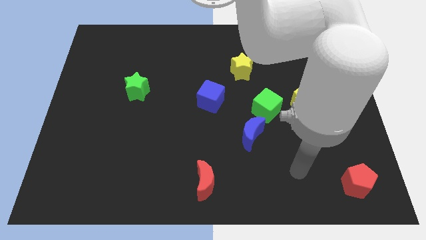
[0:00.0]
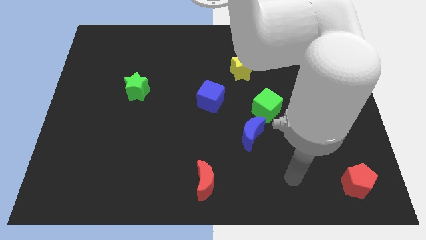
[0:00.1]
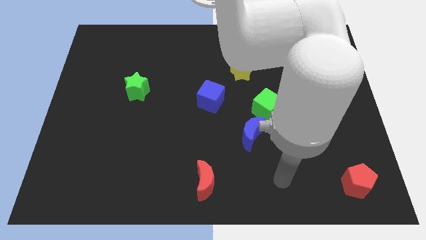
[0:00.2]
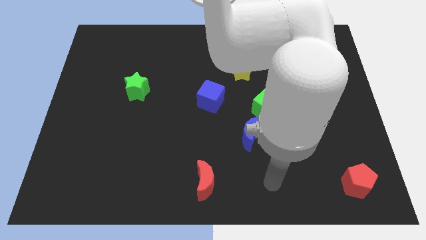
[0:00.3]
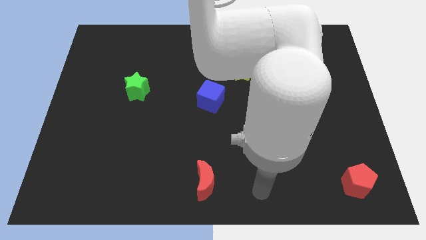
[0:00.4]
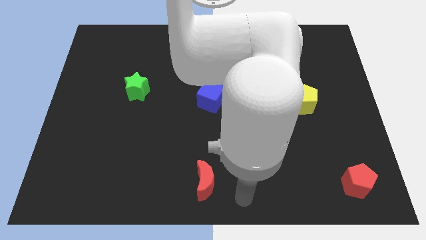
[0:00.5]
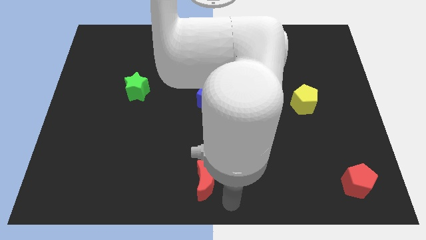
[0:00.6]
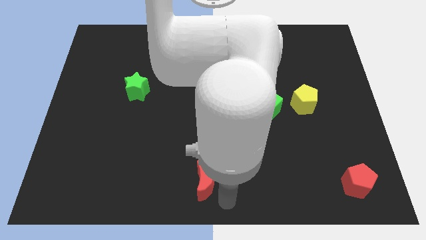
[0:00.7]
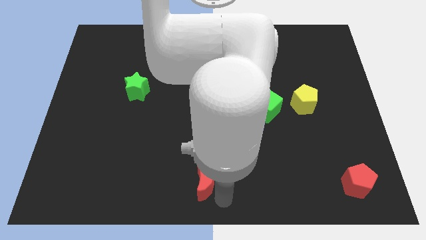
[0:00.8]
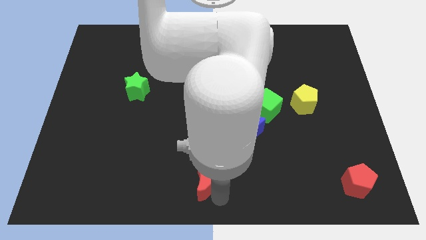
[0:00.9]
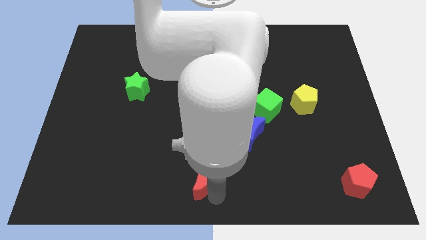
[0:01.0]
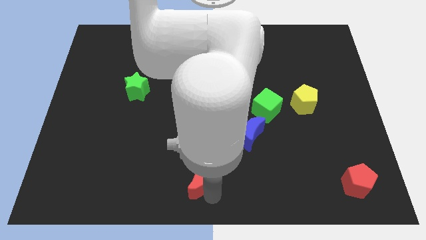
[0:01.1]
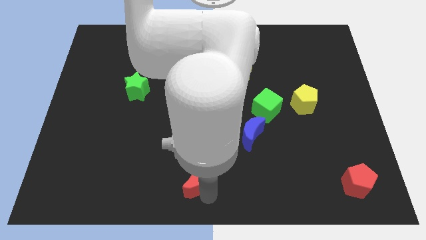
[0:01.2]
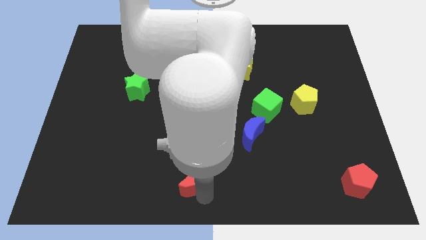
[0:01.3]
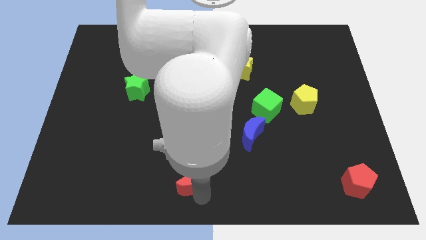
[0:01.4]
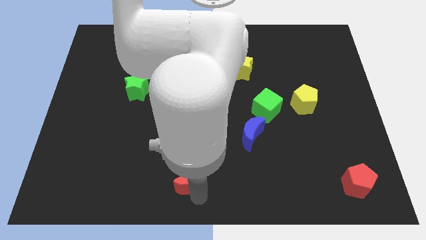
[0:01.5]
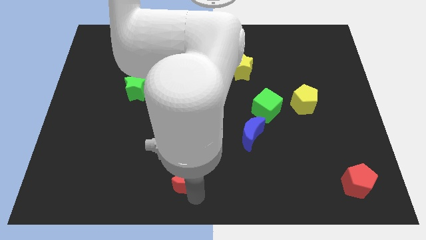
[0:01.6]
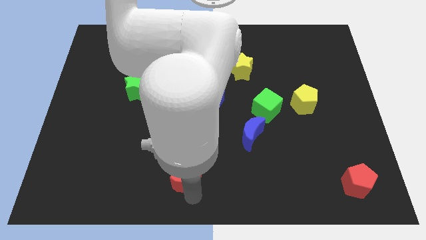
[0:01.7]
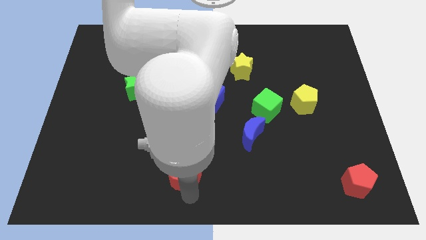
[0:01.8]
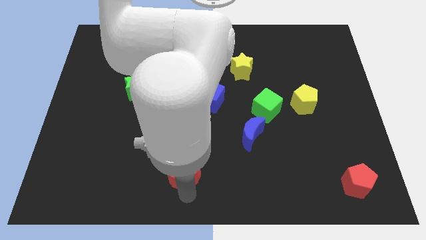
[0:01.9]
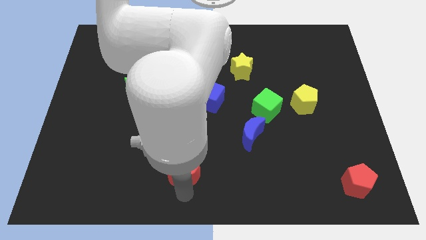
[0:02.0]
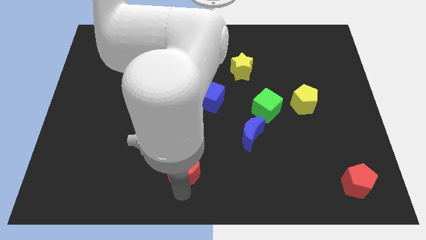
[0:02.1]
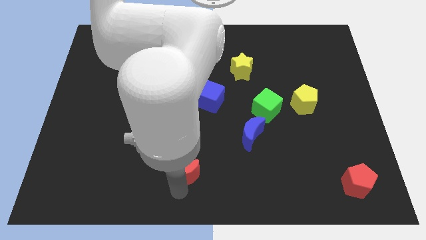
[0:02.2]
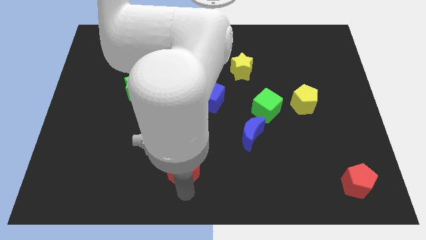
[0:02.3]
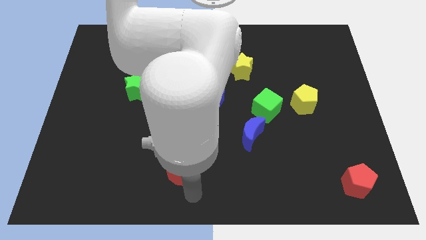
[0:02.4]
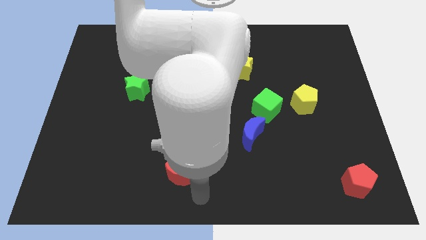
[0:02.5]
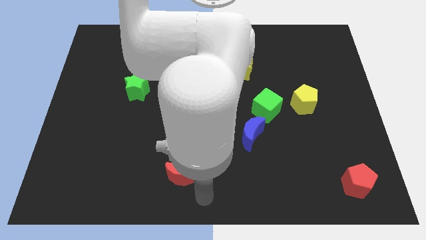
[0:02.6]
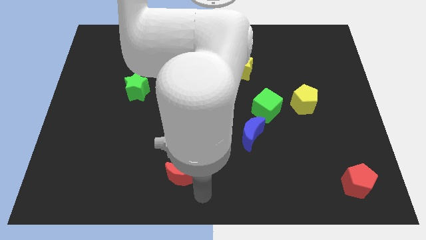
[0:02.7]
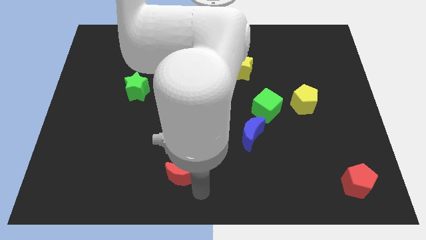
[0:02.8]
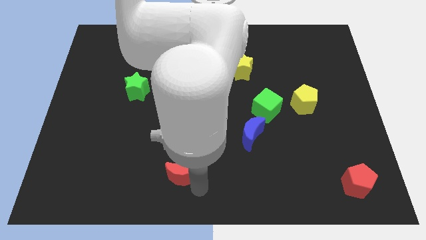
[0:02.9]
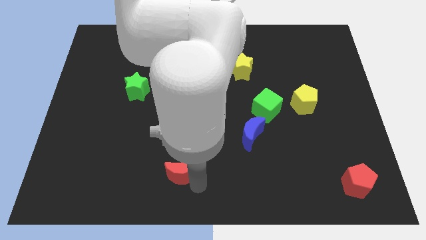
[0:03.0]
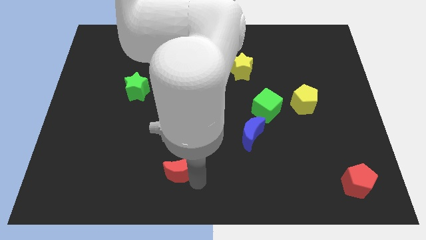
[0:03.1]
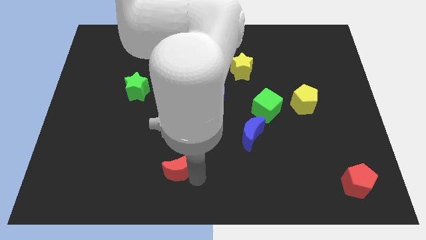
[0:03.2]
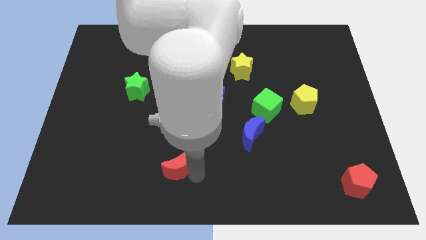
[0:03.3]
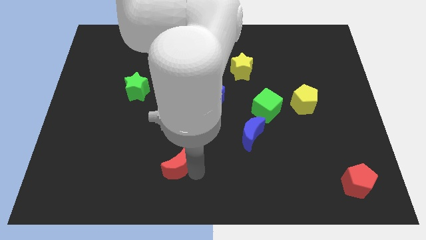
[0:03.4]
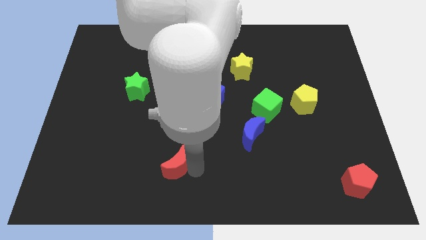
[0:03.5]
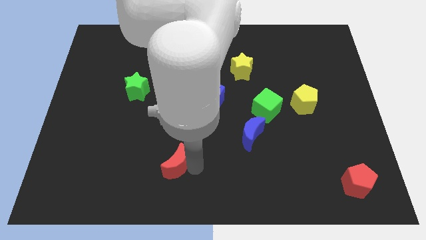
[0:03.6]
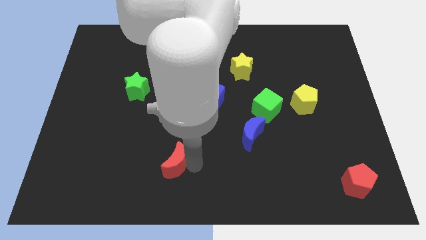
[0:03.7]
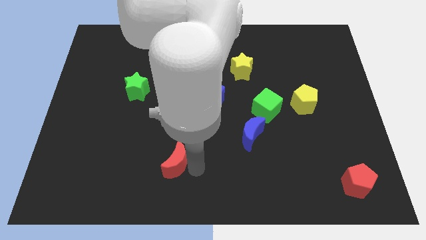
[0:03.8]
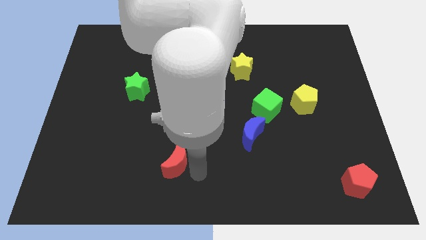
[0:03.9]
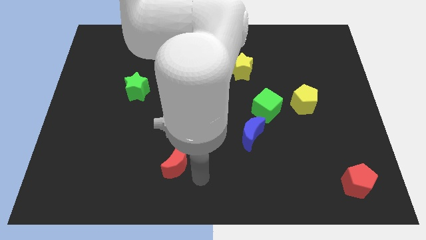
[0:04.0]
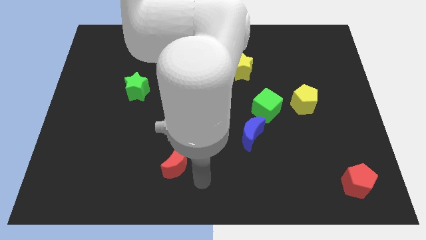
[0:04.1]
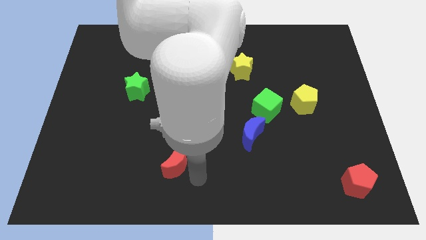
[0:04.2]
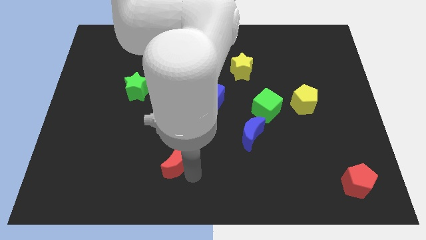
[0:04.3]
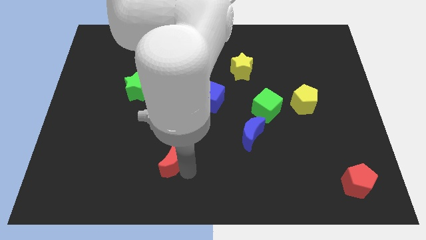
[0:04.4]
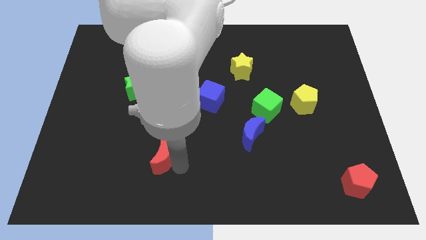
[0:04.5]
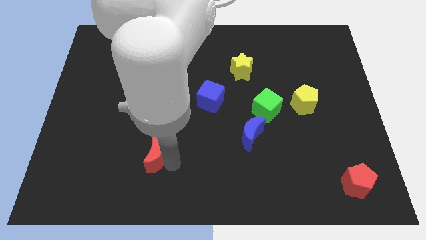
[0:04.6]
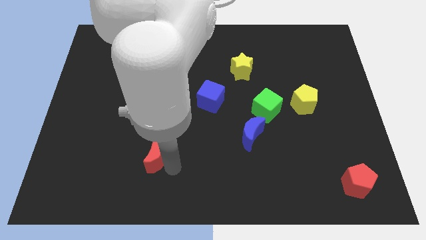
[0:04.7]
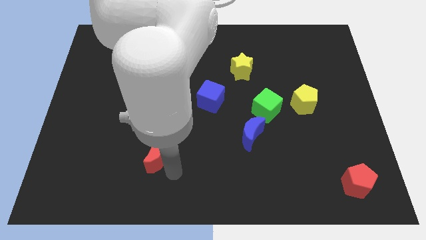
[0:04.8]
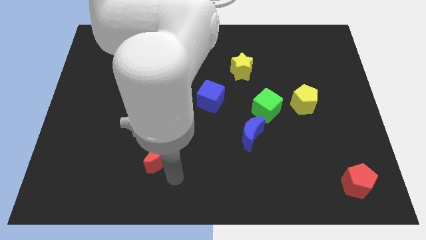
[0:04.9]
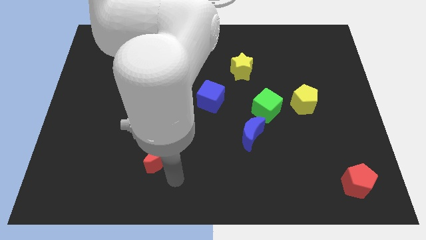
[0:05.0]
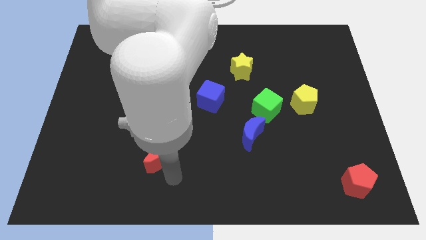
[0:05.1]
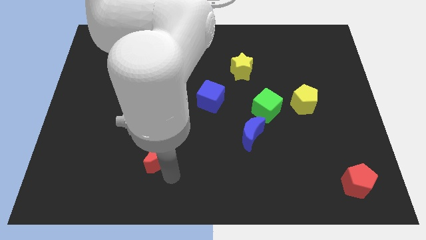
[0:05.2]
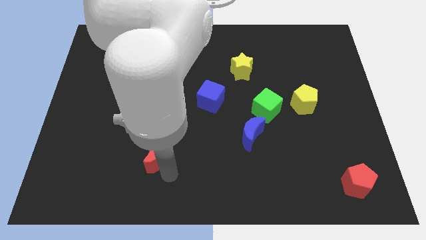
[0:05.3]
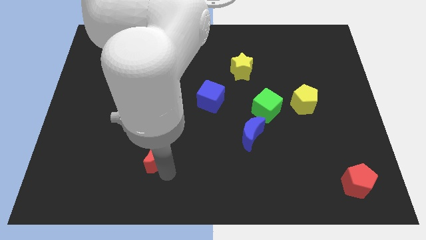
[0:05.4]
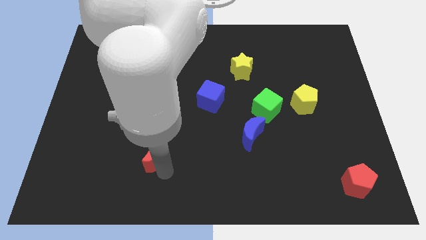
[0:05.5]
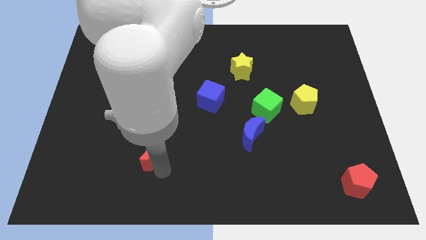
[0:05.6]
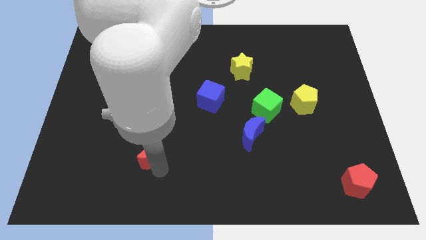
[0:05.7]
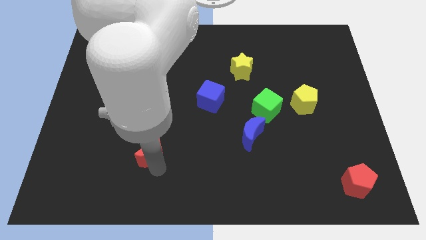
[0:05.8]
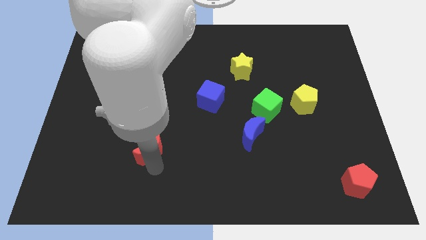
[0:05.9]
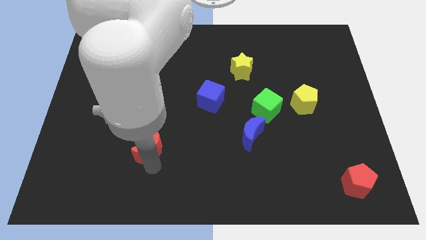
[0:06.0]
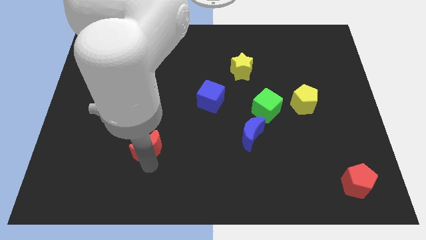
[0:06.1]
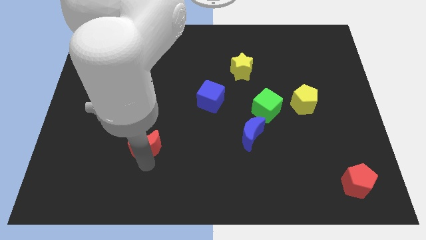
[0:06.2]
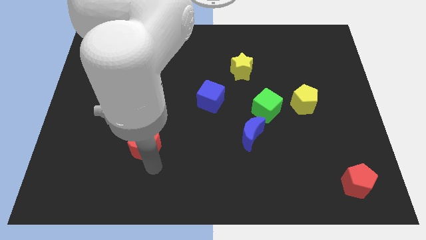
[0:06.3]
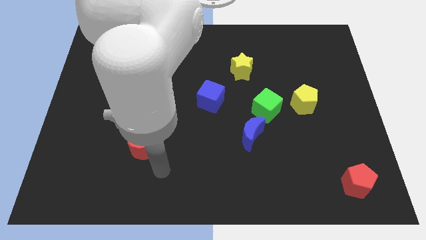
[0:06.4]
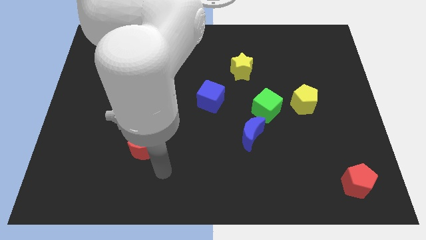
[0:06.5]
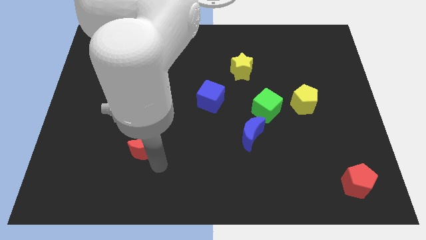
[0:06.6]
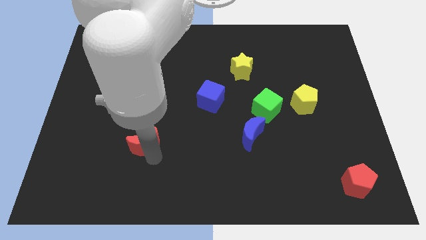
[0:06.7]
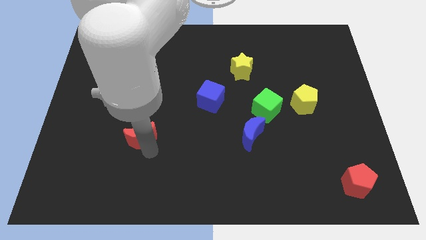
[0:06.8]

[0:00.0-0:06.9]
put the red moon to the bottom side of the green star
